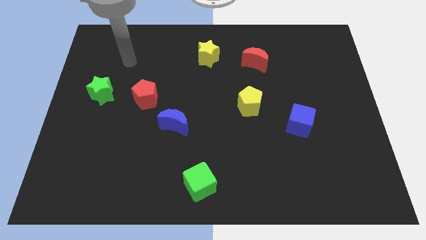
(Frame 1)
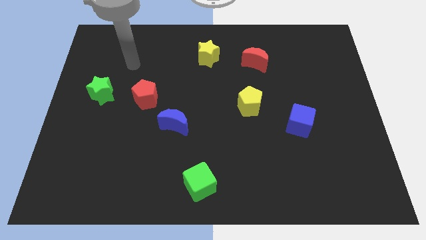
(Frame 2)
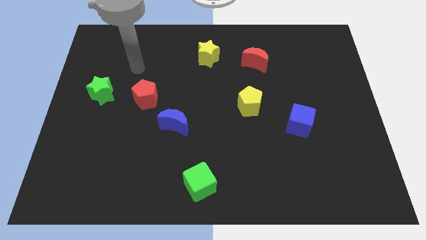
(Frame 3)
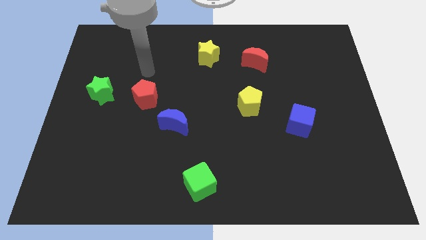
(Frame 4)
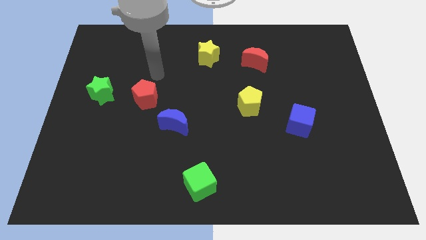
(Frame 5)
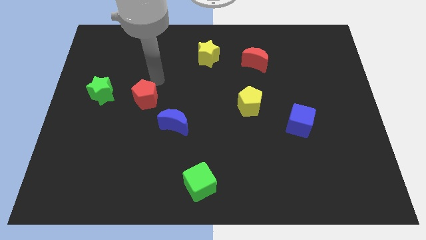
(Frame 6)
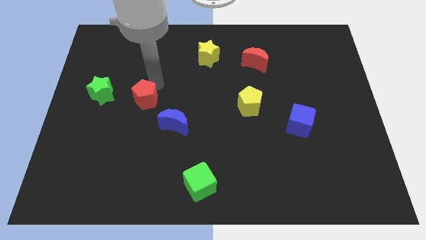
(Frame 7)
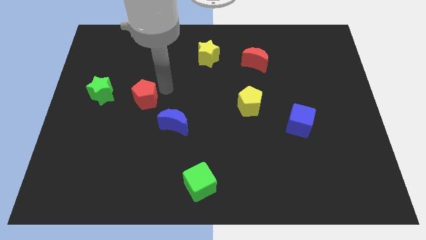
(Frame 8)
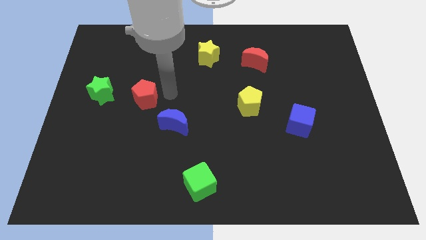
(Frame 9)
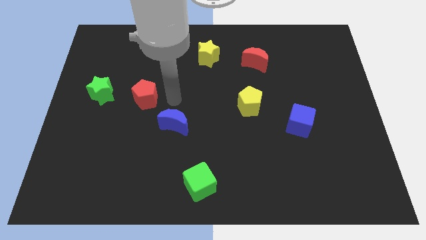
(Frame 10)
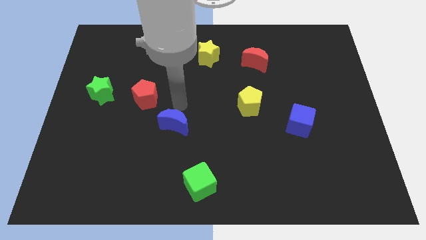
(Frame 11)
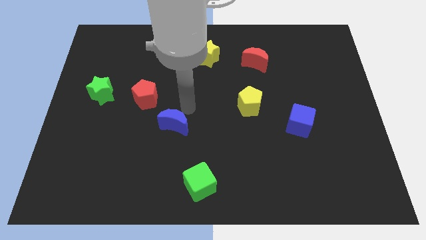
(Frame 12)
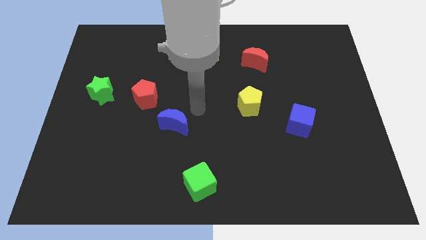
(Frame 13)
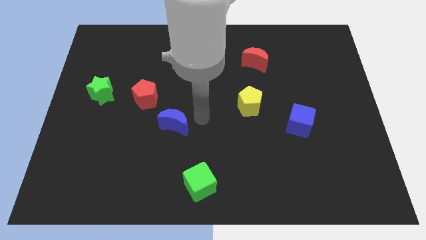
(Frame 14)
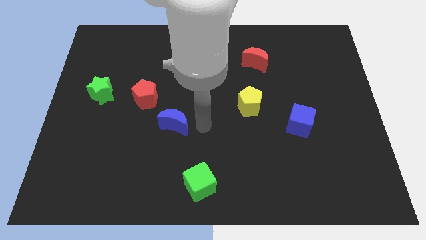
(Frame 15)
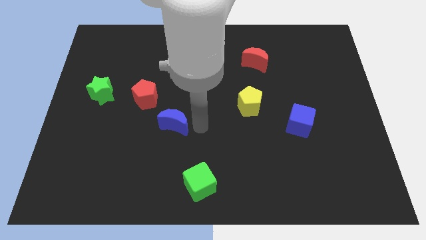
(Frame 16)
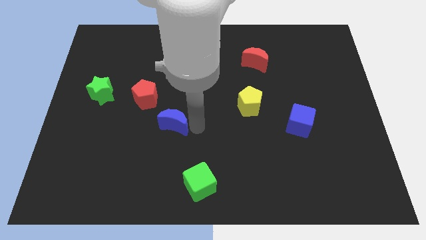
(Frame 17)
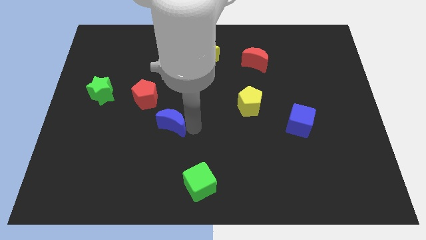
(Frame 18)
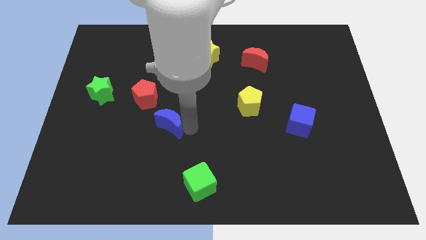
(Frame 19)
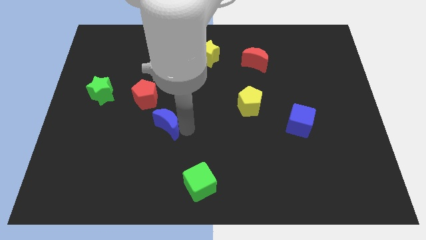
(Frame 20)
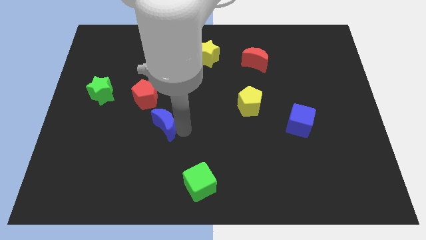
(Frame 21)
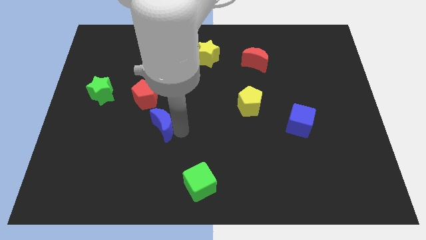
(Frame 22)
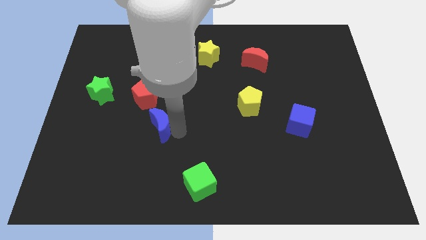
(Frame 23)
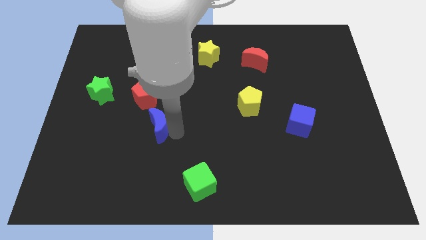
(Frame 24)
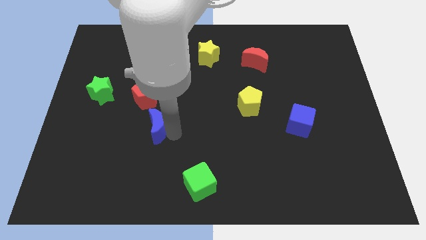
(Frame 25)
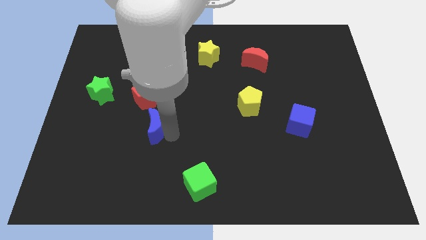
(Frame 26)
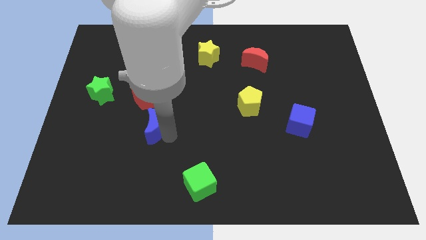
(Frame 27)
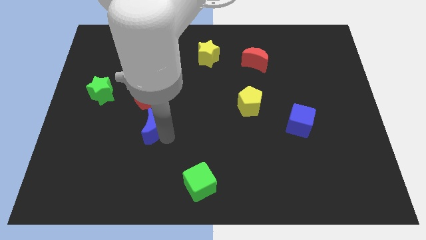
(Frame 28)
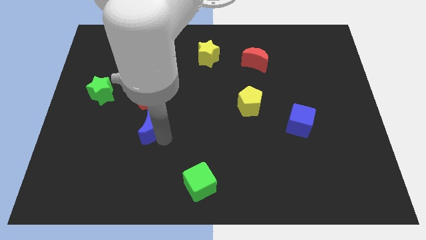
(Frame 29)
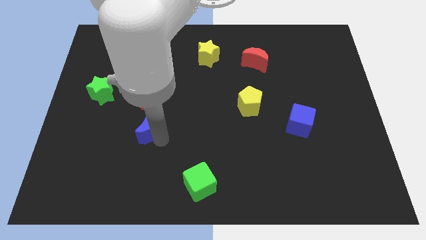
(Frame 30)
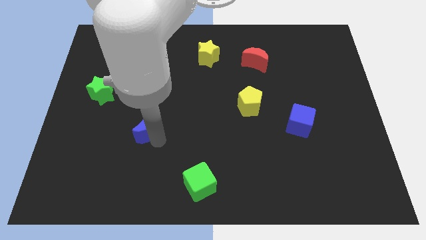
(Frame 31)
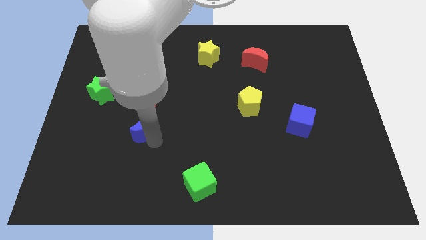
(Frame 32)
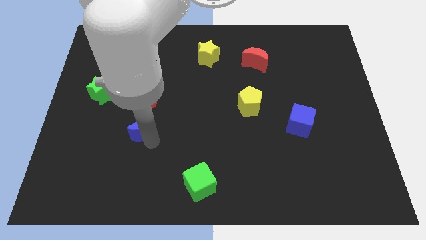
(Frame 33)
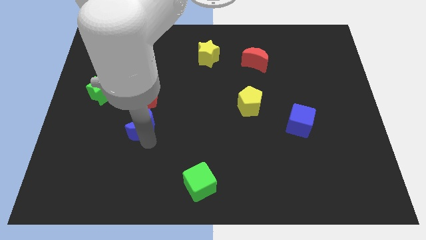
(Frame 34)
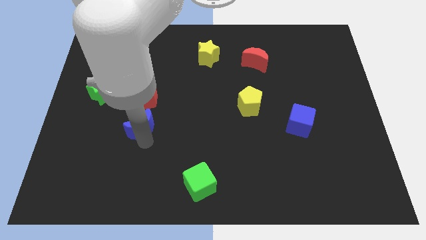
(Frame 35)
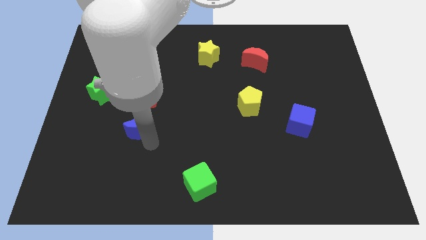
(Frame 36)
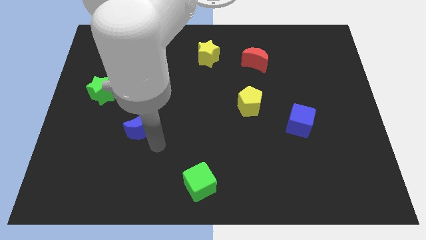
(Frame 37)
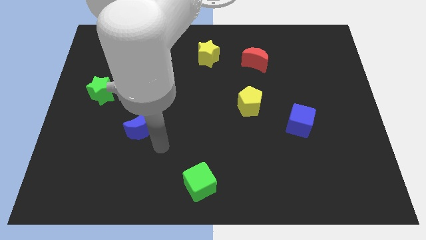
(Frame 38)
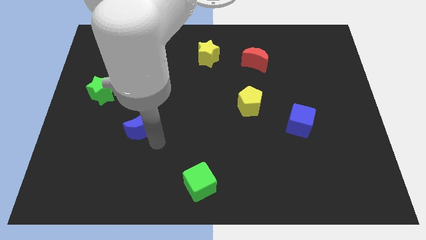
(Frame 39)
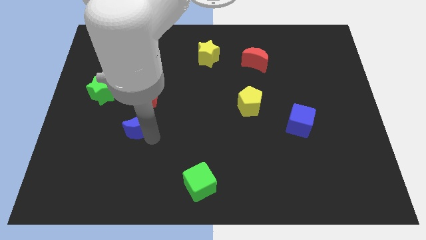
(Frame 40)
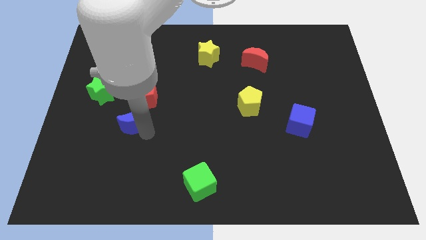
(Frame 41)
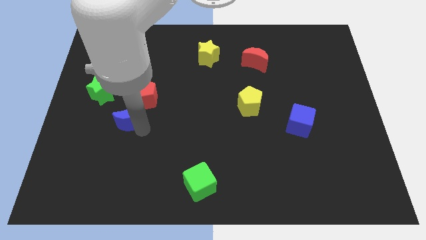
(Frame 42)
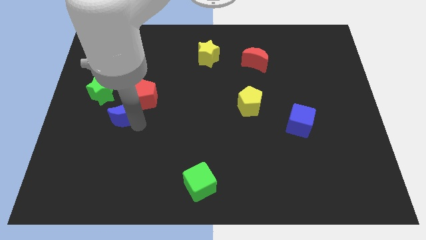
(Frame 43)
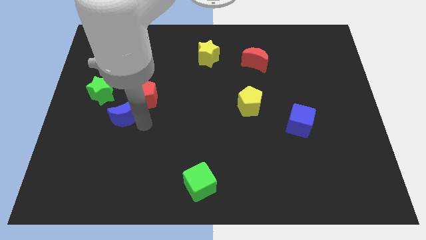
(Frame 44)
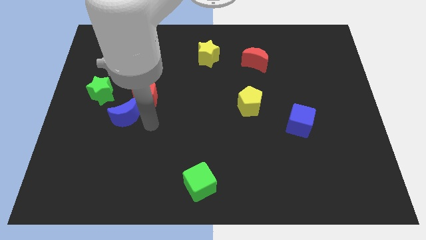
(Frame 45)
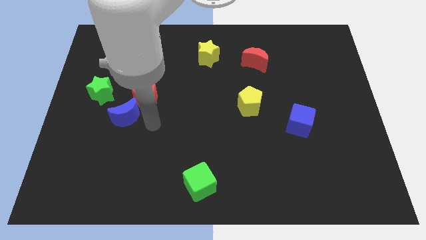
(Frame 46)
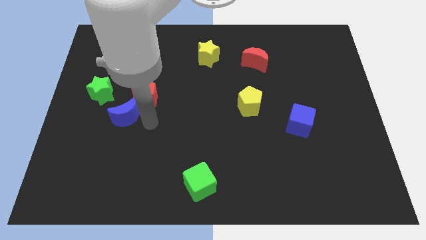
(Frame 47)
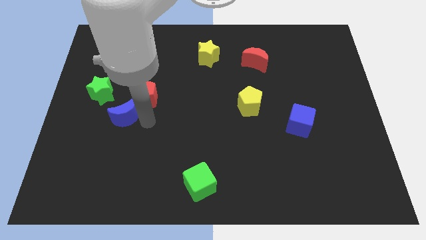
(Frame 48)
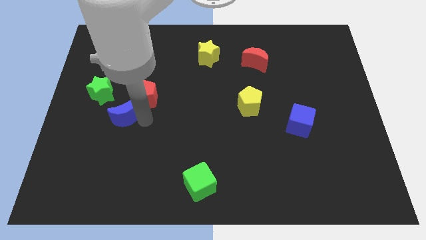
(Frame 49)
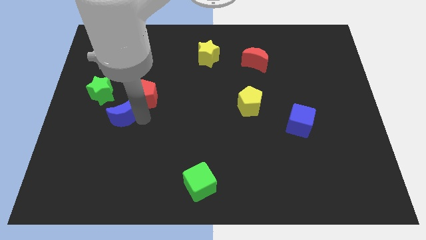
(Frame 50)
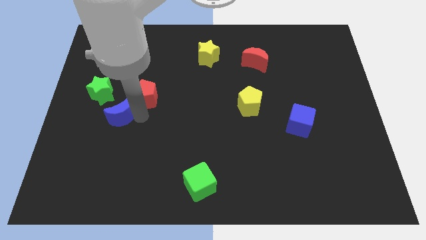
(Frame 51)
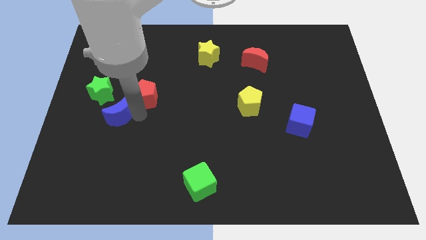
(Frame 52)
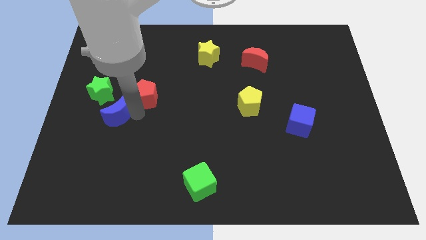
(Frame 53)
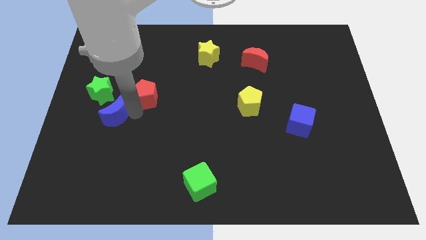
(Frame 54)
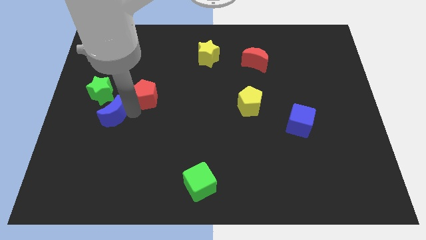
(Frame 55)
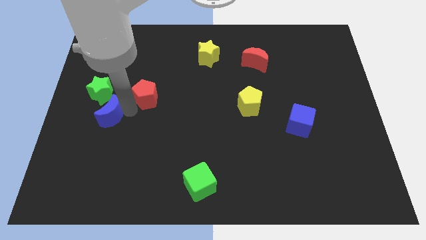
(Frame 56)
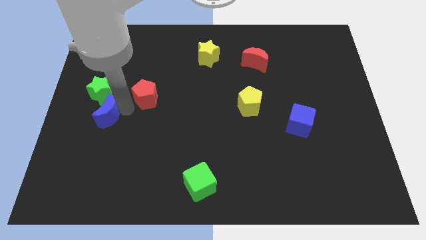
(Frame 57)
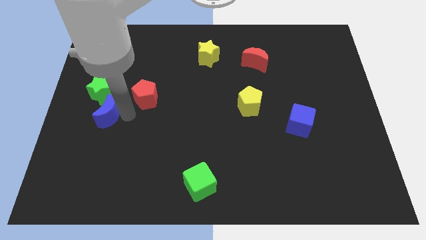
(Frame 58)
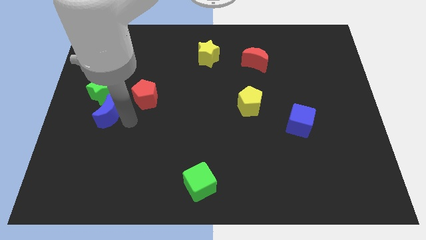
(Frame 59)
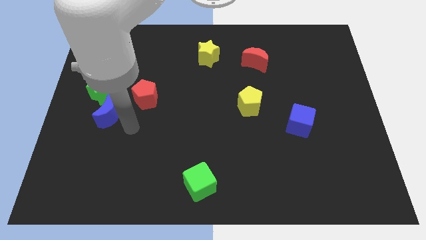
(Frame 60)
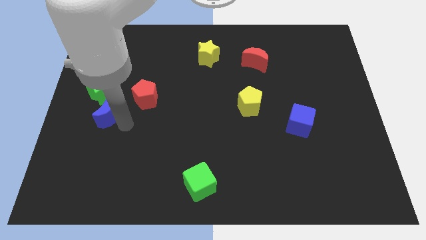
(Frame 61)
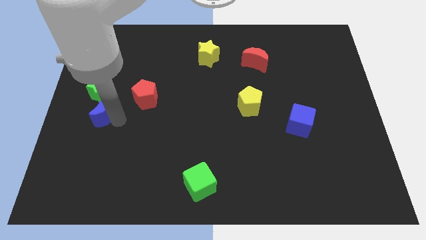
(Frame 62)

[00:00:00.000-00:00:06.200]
put the blue moon left of the red pentagon
